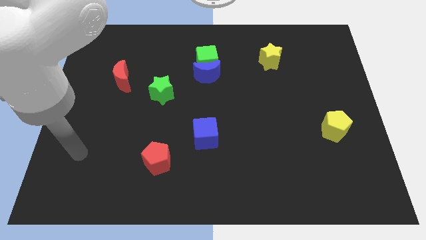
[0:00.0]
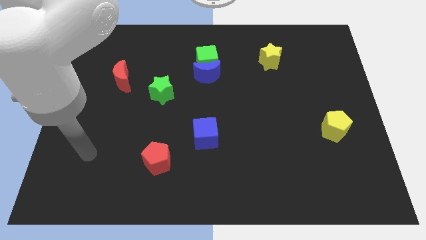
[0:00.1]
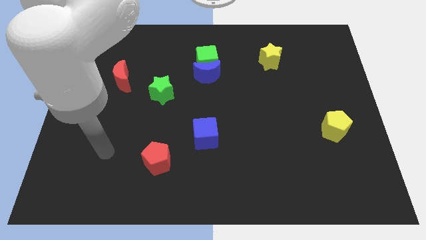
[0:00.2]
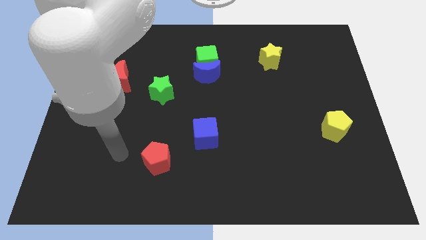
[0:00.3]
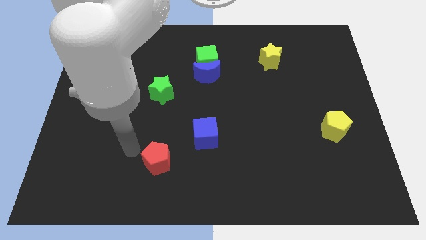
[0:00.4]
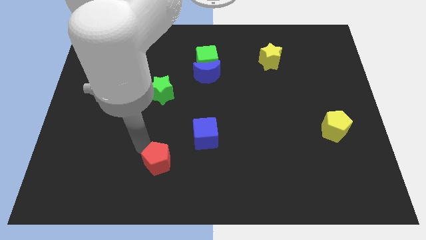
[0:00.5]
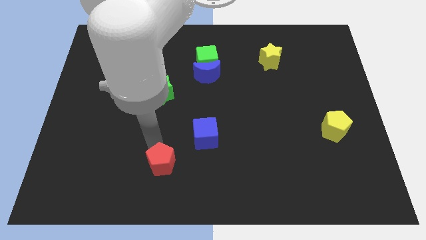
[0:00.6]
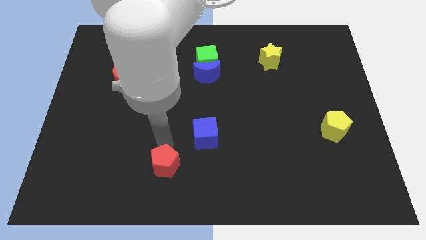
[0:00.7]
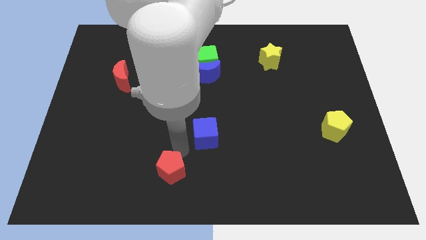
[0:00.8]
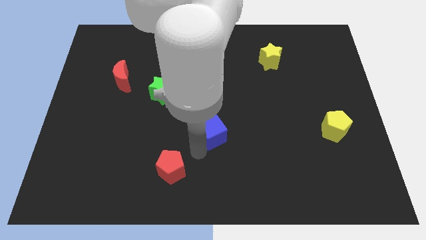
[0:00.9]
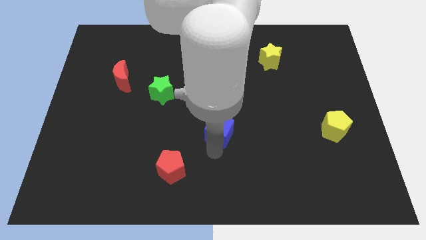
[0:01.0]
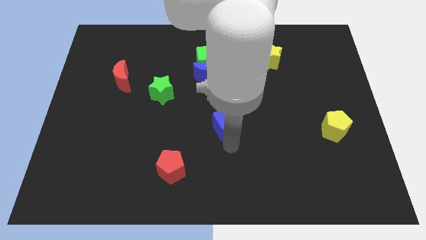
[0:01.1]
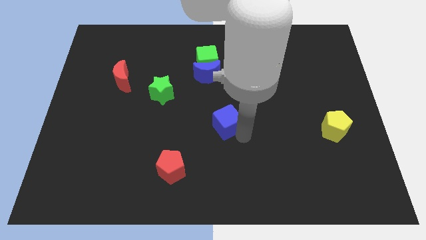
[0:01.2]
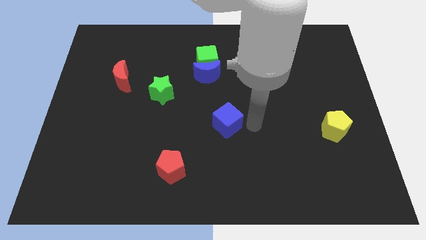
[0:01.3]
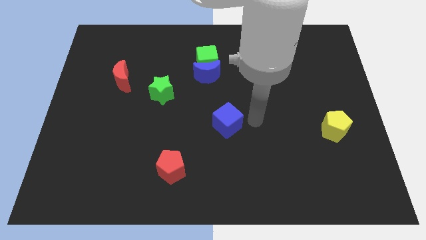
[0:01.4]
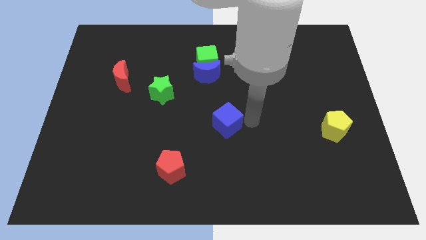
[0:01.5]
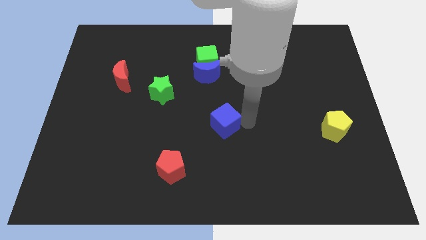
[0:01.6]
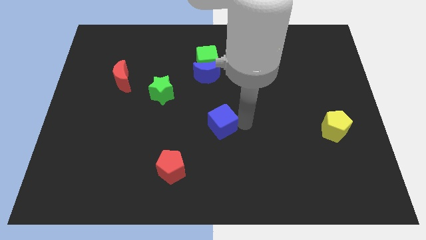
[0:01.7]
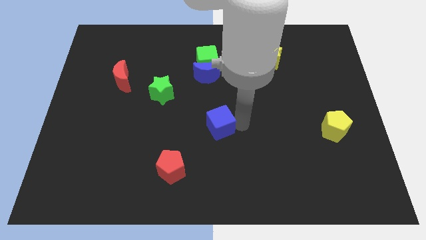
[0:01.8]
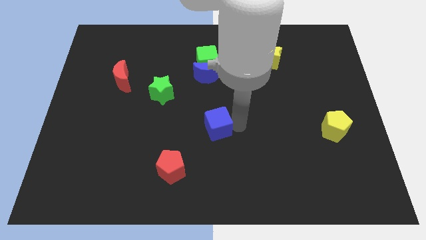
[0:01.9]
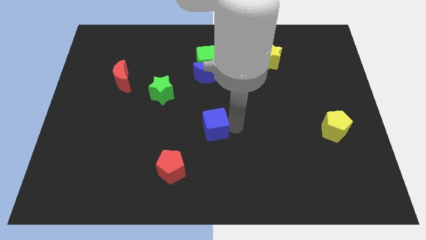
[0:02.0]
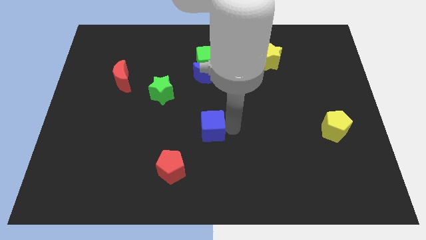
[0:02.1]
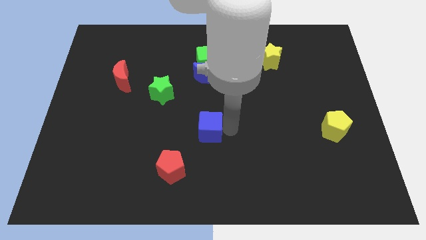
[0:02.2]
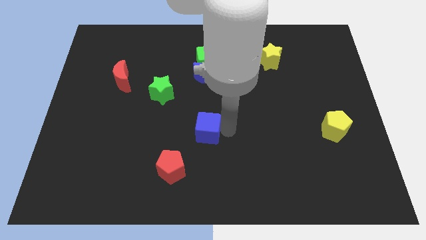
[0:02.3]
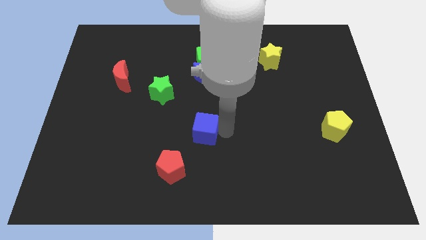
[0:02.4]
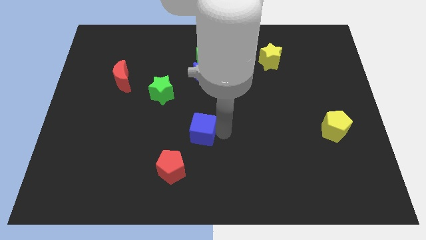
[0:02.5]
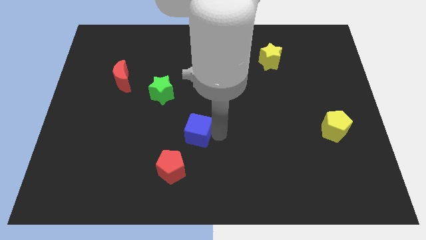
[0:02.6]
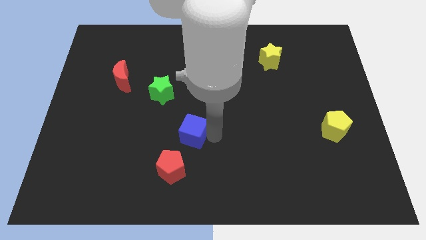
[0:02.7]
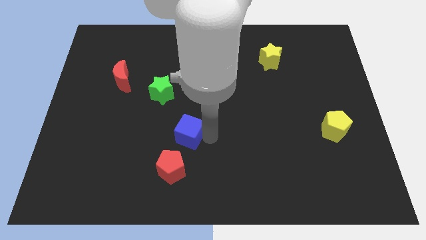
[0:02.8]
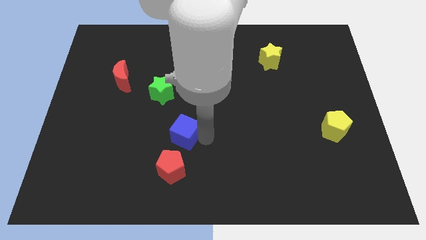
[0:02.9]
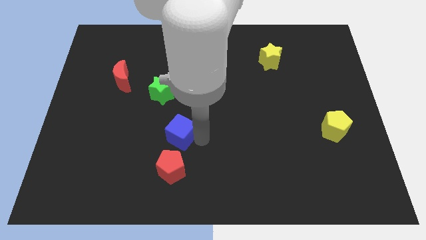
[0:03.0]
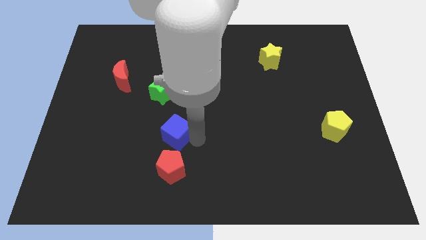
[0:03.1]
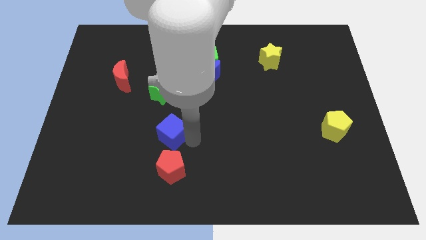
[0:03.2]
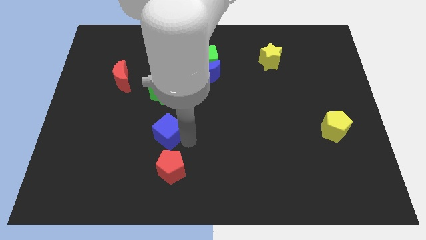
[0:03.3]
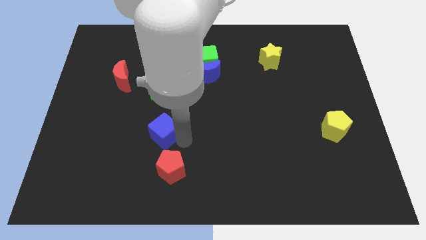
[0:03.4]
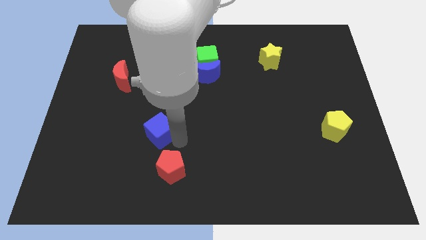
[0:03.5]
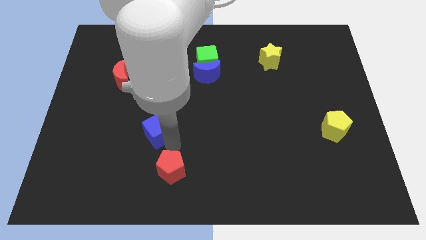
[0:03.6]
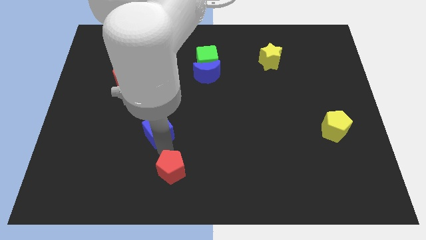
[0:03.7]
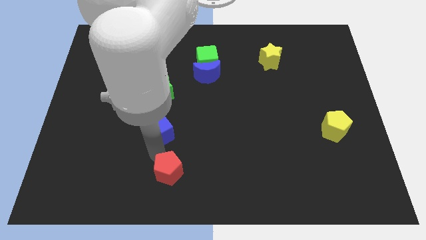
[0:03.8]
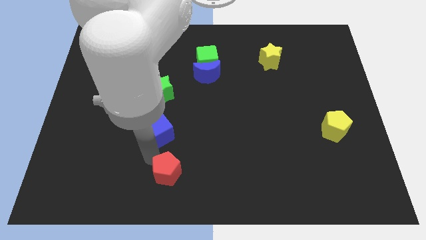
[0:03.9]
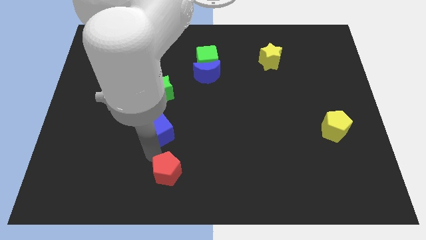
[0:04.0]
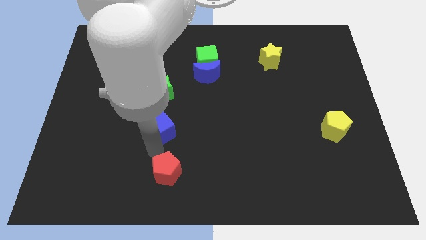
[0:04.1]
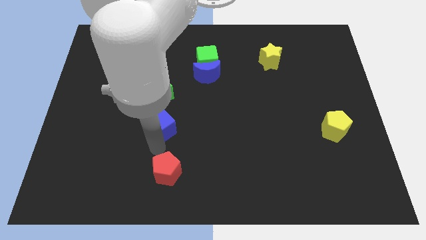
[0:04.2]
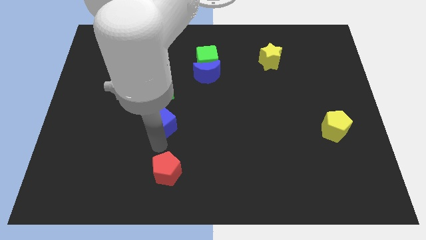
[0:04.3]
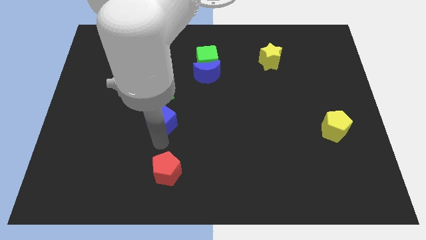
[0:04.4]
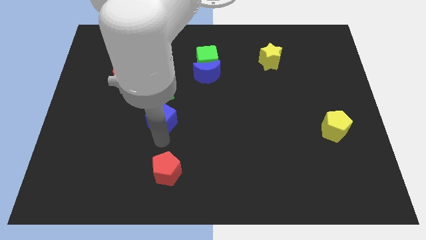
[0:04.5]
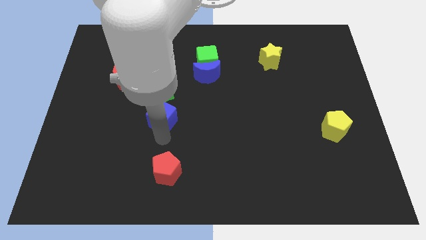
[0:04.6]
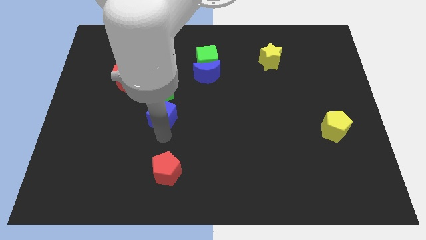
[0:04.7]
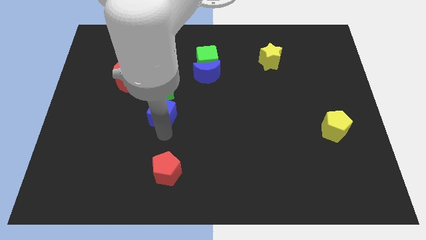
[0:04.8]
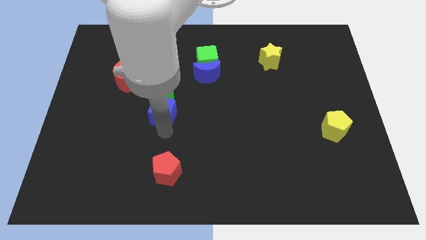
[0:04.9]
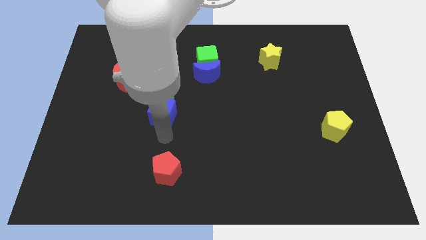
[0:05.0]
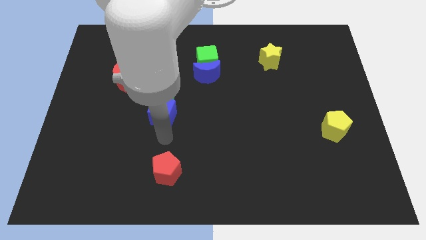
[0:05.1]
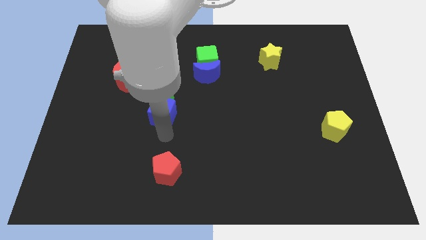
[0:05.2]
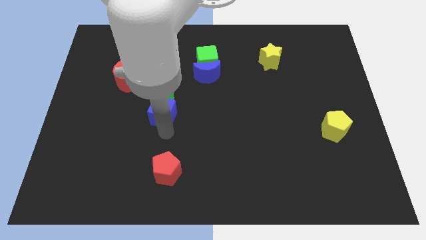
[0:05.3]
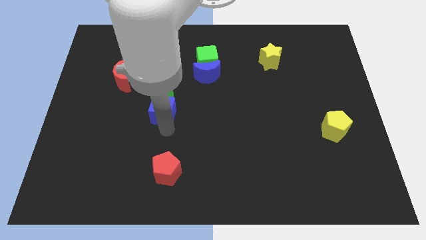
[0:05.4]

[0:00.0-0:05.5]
push the blue cube to the green star

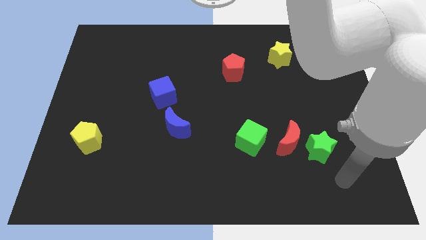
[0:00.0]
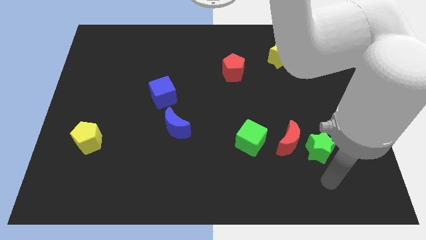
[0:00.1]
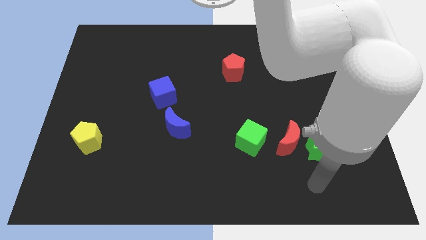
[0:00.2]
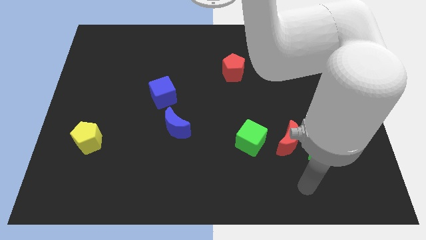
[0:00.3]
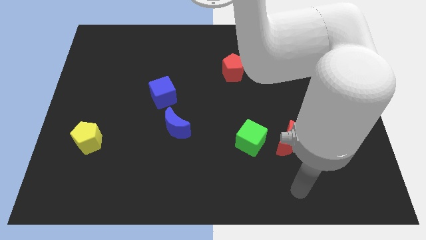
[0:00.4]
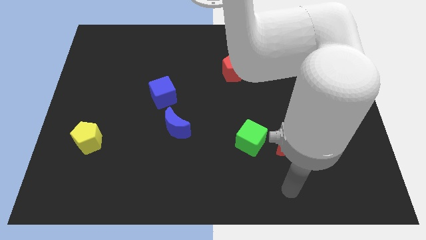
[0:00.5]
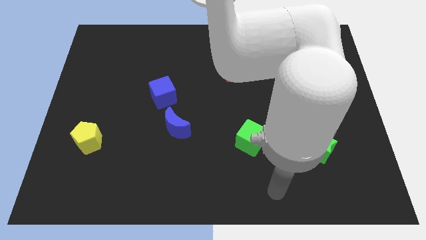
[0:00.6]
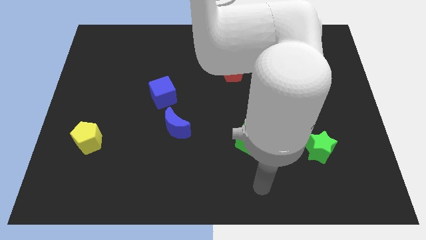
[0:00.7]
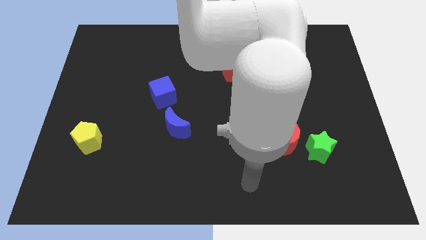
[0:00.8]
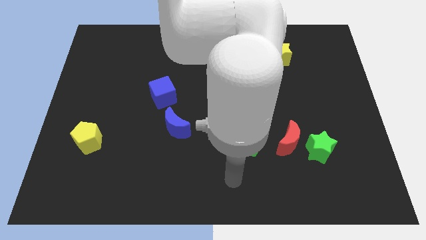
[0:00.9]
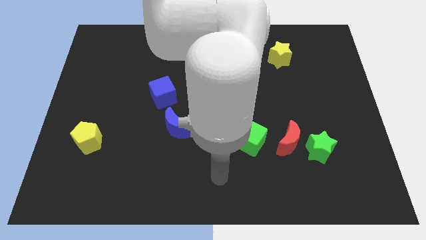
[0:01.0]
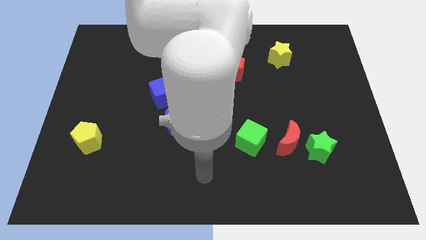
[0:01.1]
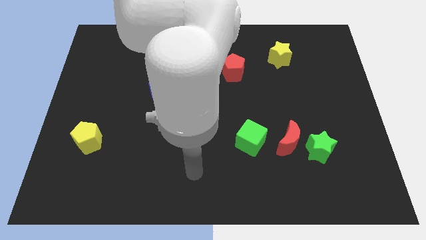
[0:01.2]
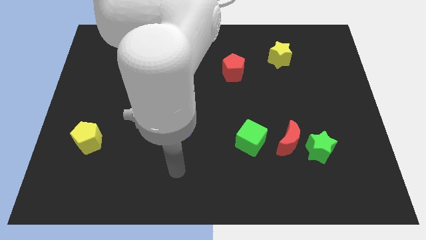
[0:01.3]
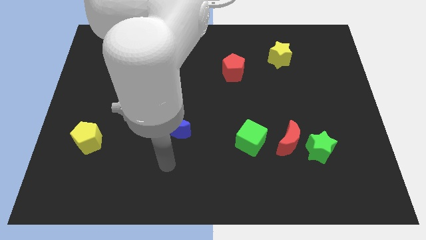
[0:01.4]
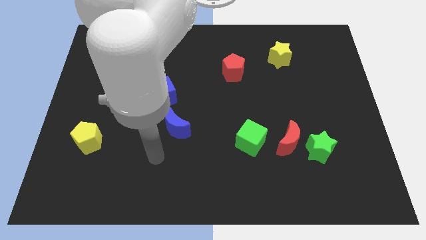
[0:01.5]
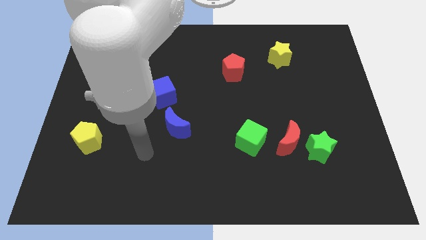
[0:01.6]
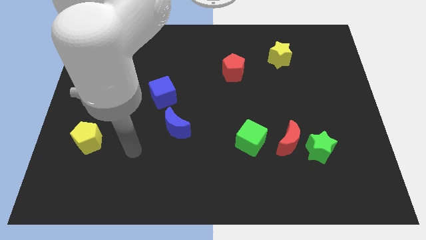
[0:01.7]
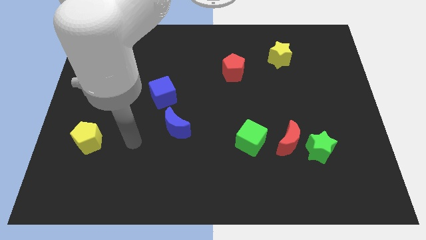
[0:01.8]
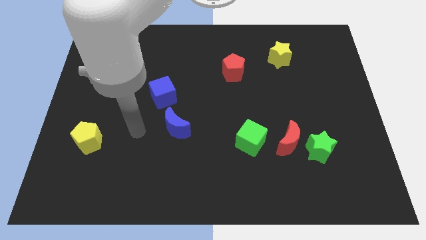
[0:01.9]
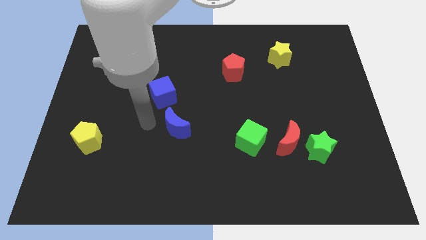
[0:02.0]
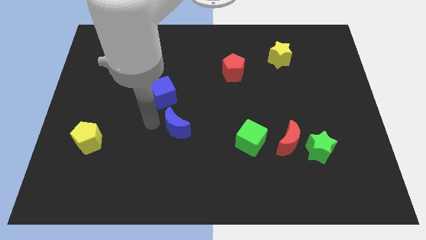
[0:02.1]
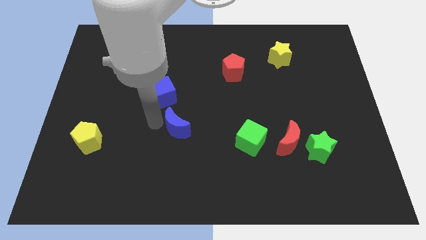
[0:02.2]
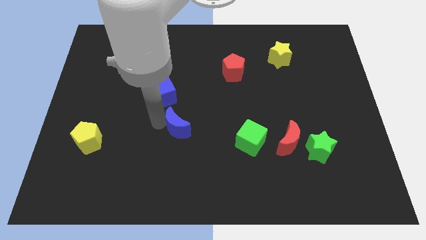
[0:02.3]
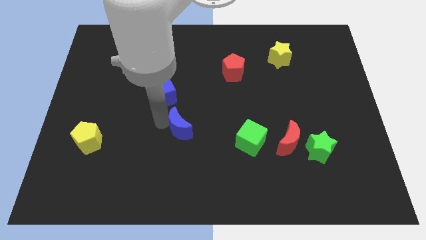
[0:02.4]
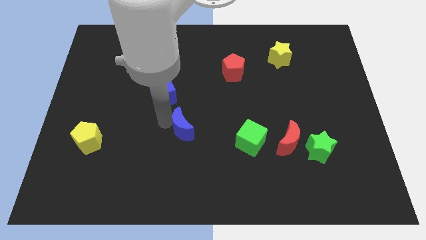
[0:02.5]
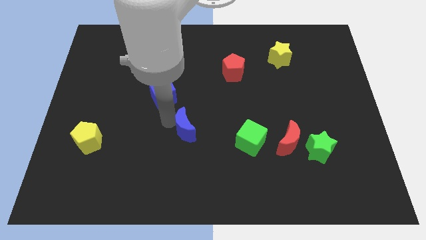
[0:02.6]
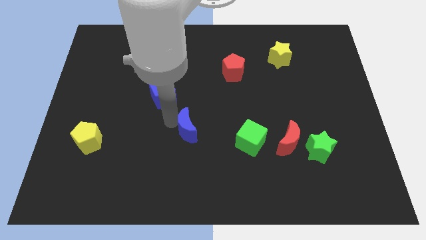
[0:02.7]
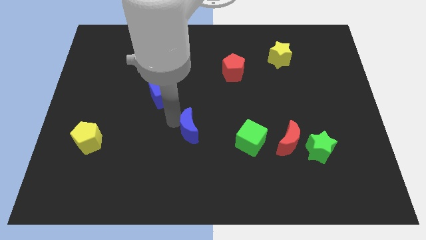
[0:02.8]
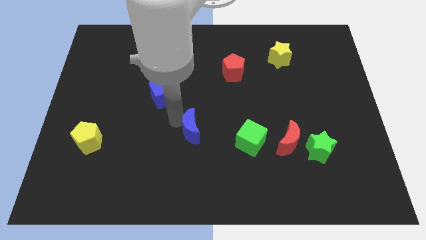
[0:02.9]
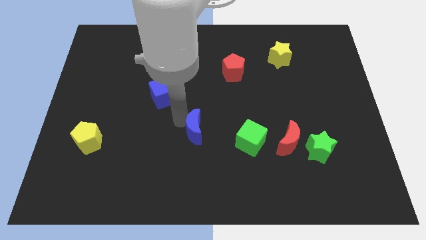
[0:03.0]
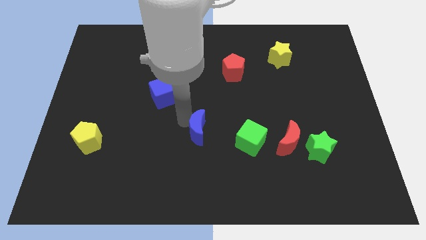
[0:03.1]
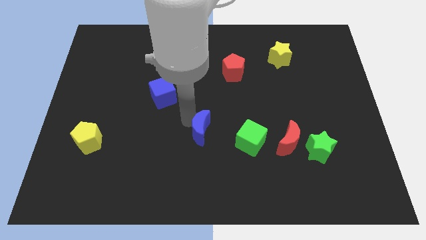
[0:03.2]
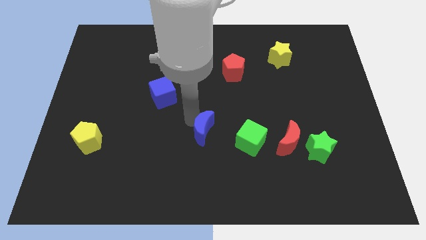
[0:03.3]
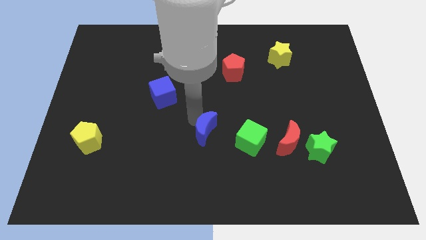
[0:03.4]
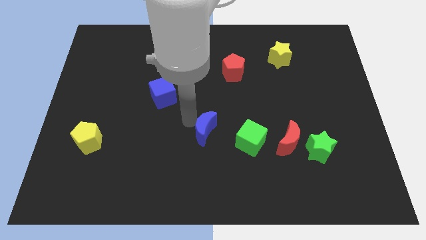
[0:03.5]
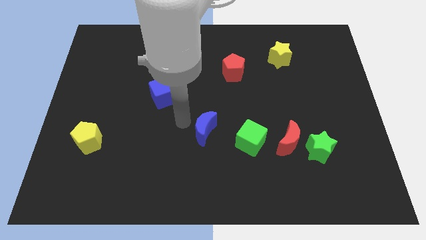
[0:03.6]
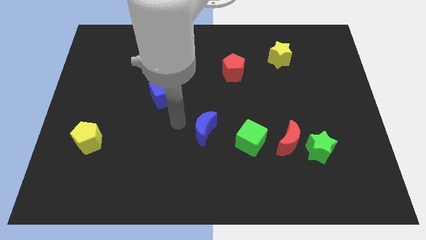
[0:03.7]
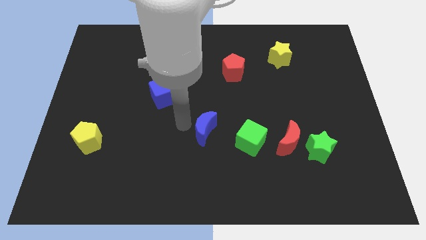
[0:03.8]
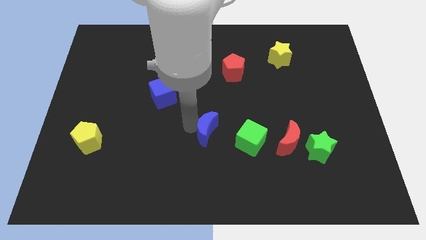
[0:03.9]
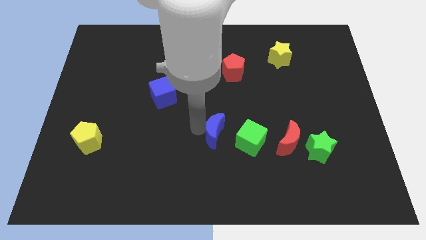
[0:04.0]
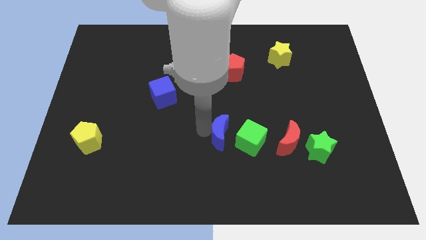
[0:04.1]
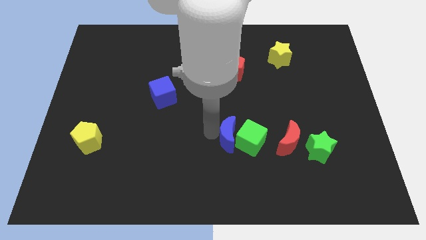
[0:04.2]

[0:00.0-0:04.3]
move the blue moon next to the green cube
